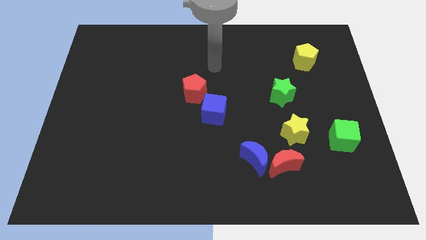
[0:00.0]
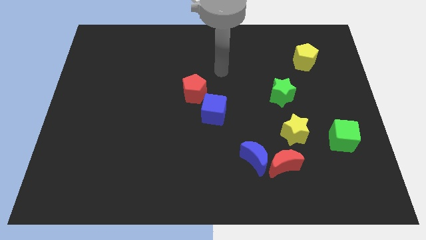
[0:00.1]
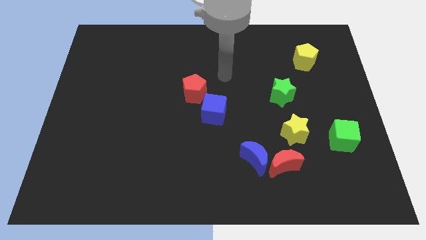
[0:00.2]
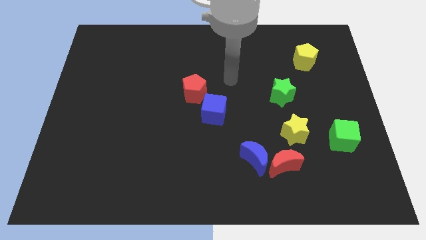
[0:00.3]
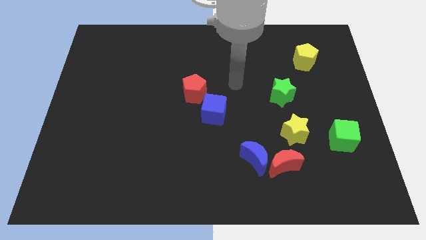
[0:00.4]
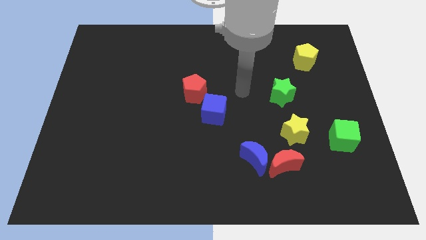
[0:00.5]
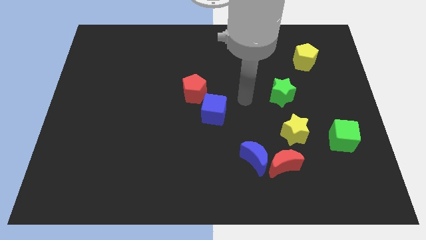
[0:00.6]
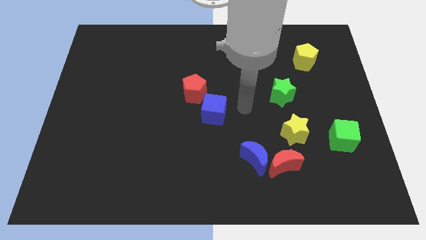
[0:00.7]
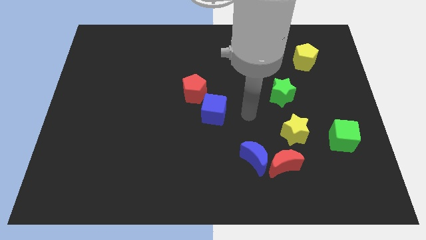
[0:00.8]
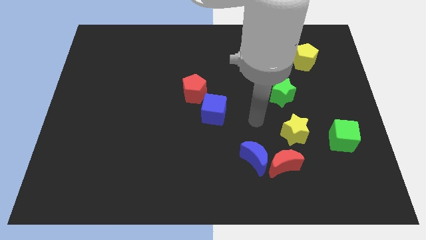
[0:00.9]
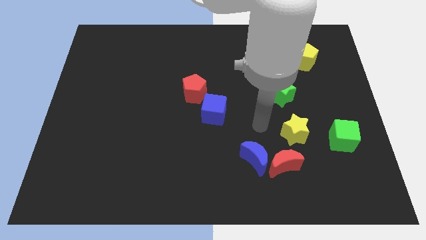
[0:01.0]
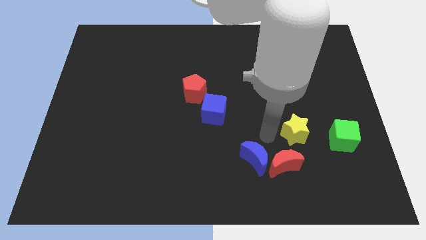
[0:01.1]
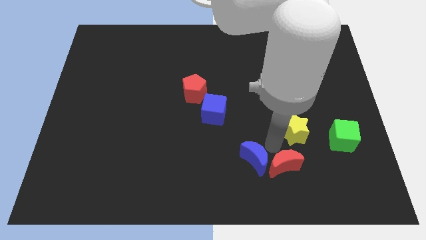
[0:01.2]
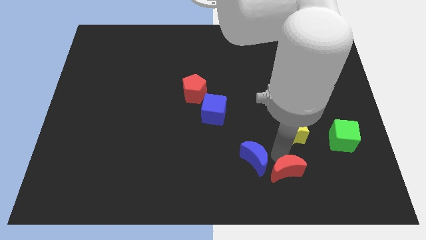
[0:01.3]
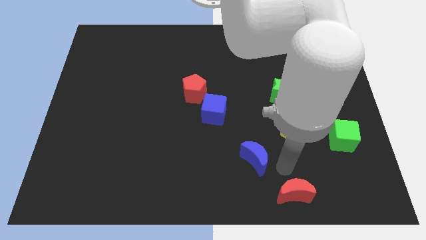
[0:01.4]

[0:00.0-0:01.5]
pull the blue moon apart from the red moon

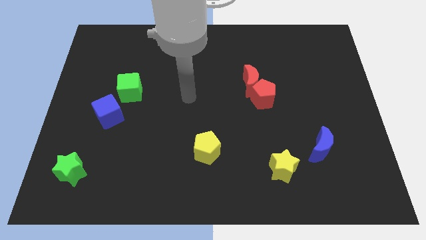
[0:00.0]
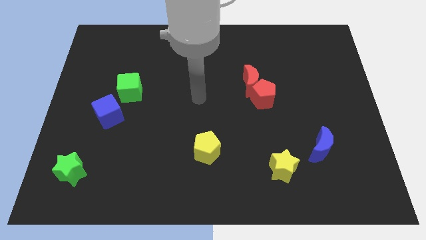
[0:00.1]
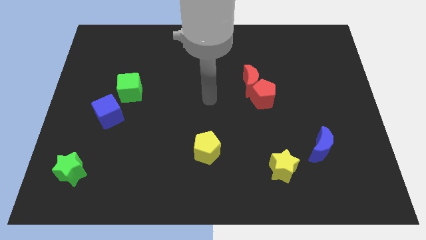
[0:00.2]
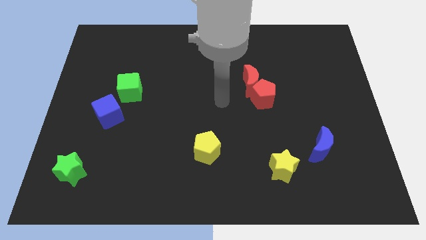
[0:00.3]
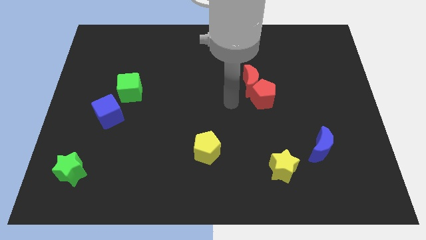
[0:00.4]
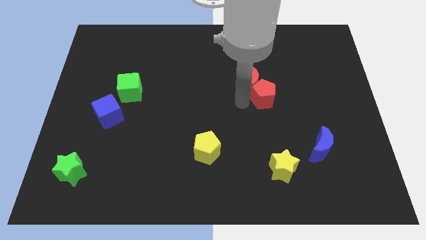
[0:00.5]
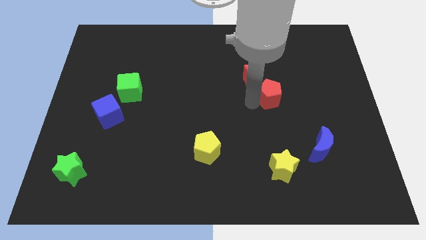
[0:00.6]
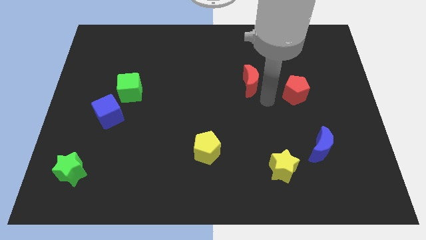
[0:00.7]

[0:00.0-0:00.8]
separate the red moon from the red pentagon

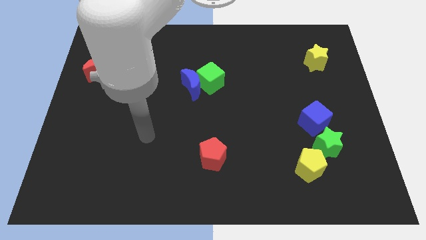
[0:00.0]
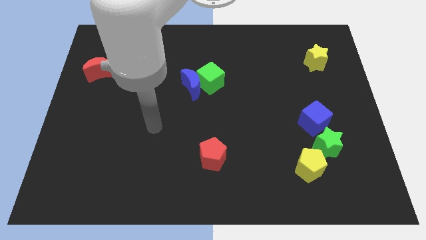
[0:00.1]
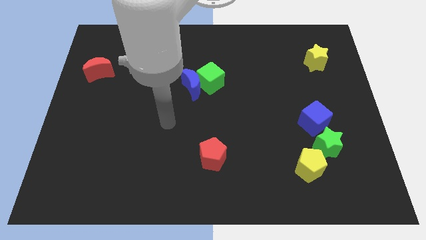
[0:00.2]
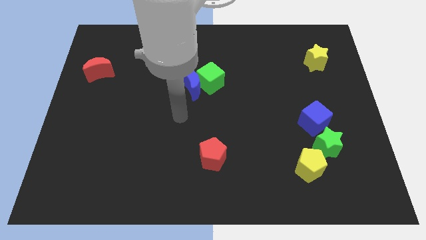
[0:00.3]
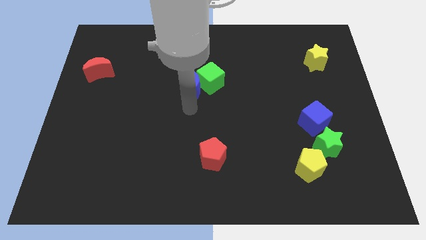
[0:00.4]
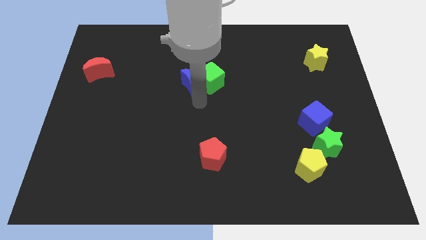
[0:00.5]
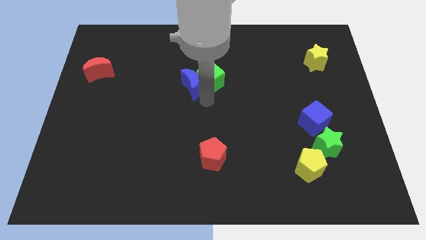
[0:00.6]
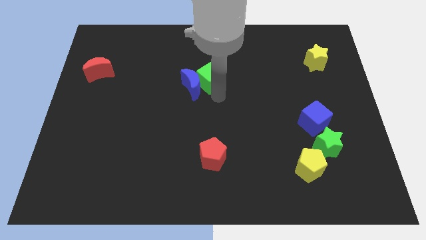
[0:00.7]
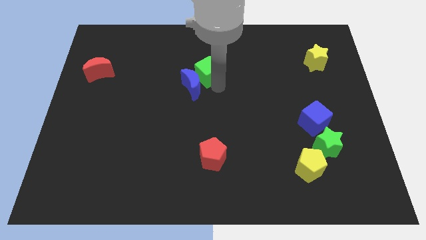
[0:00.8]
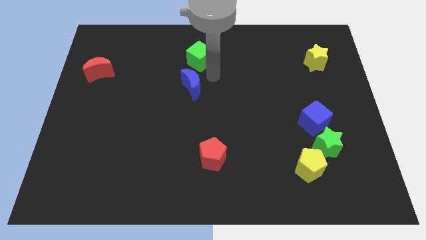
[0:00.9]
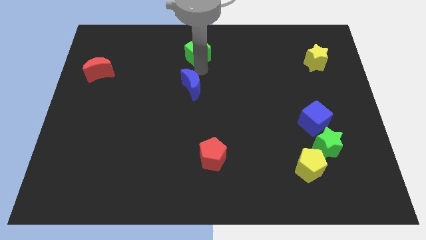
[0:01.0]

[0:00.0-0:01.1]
move the blue moon away from the green cube

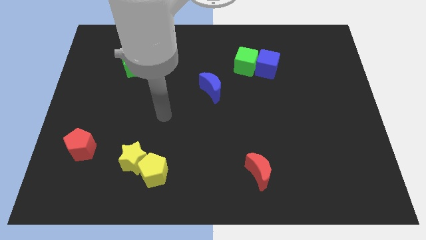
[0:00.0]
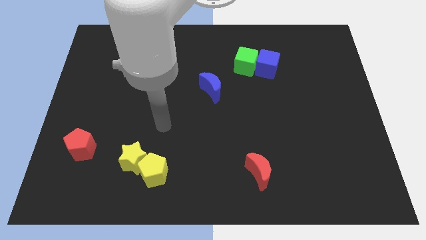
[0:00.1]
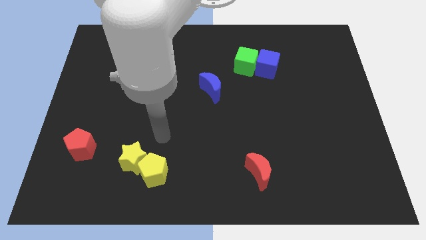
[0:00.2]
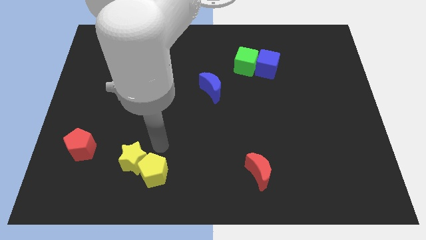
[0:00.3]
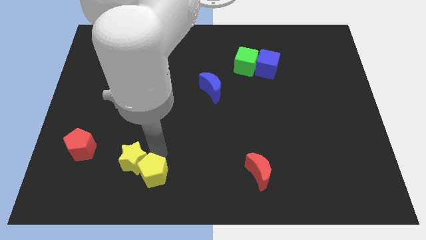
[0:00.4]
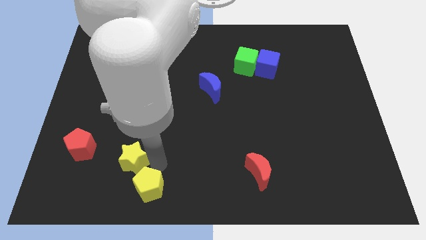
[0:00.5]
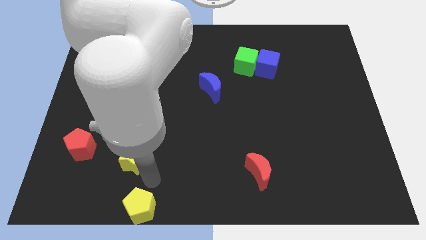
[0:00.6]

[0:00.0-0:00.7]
move the yellow star away from the yellow pentagon

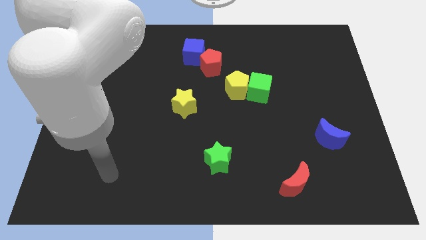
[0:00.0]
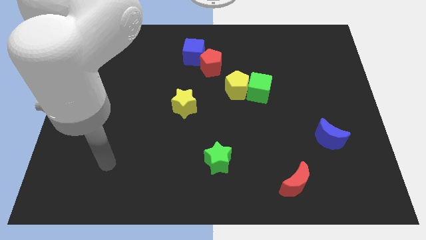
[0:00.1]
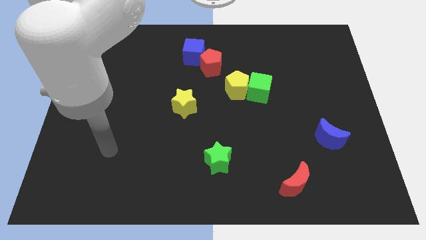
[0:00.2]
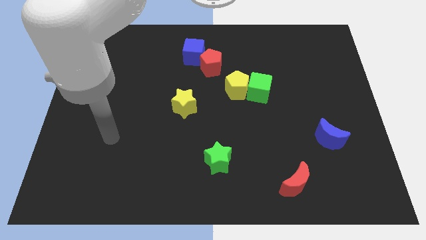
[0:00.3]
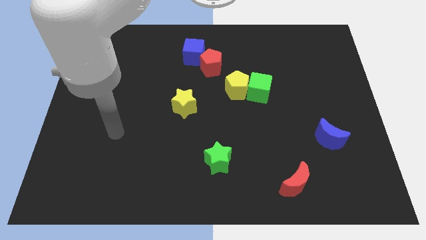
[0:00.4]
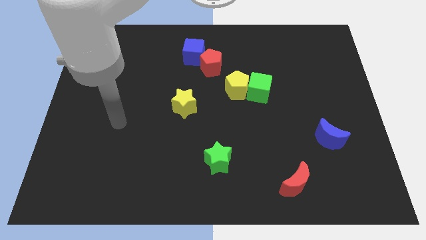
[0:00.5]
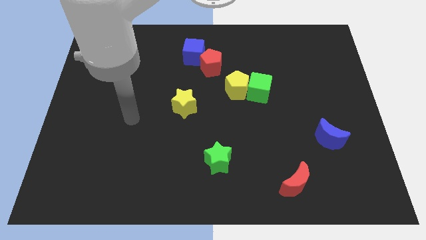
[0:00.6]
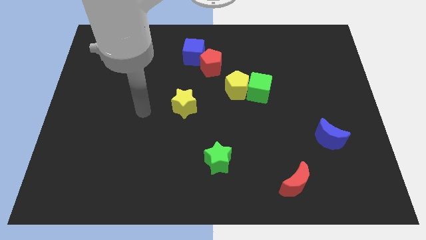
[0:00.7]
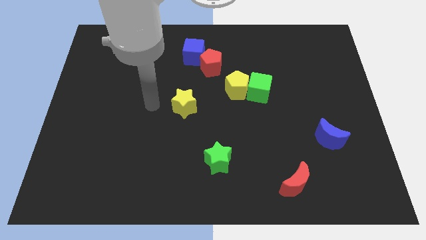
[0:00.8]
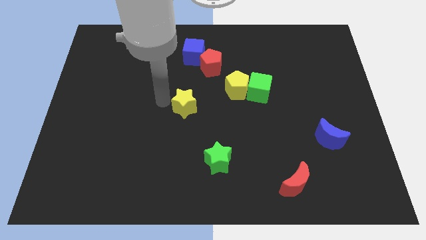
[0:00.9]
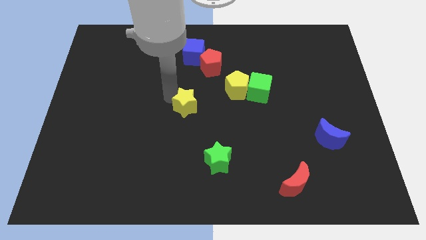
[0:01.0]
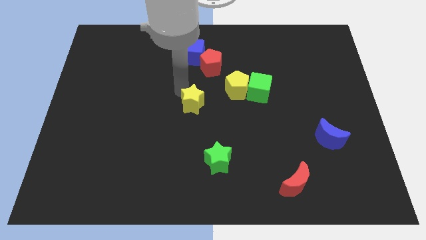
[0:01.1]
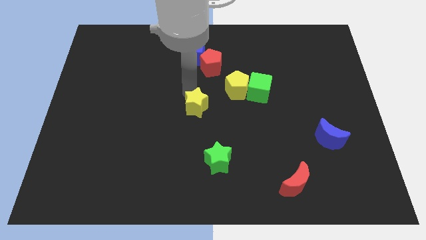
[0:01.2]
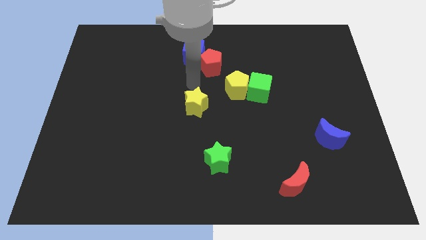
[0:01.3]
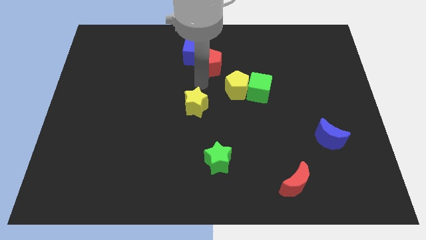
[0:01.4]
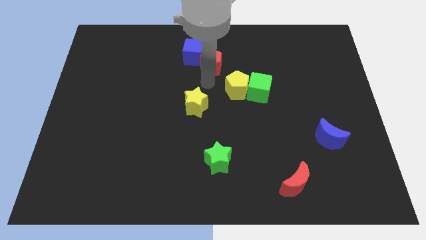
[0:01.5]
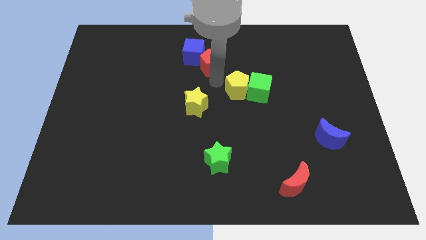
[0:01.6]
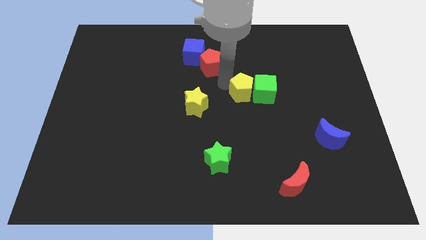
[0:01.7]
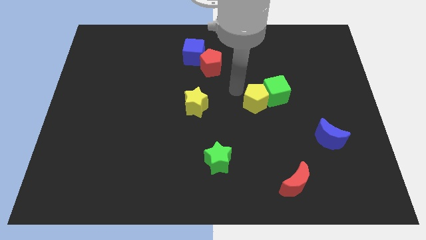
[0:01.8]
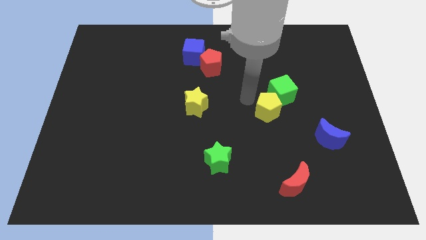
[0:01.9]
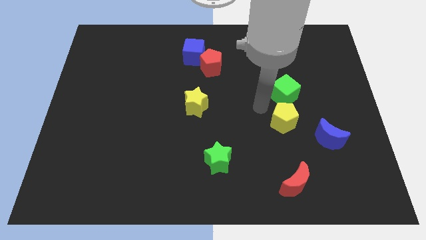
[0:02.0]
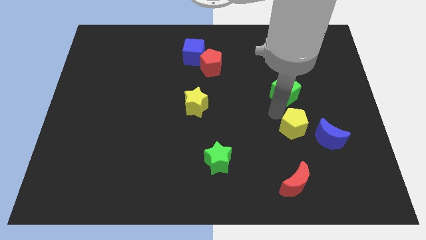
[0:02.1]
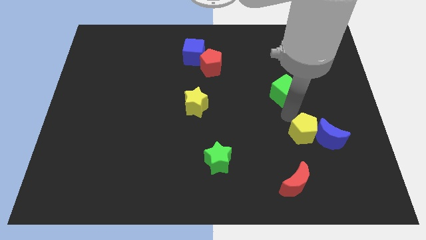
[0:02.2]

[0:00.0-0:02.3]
move the green cube away from the yellow pentagon

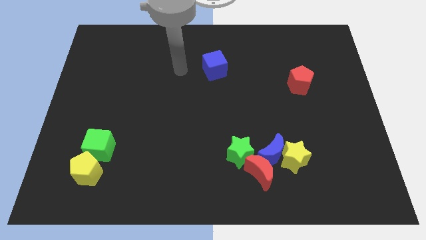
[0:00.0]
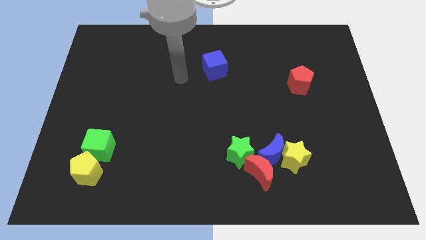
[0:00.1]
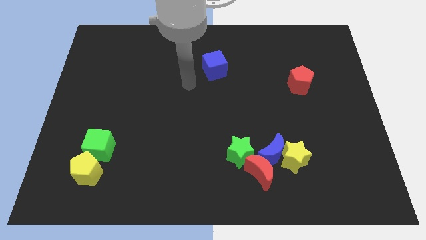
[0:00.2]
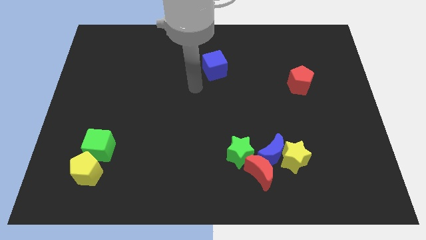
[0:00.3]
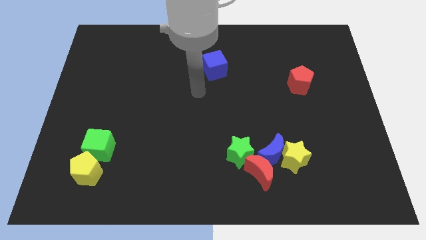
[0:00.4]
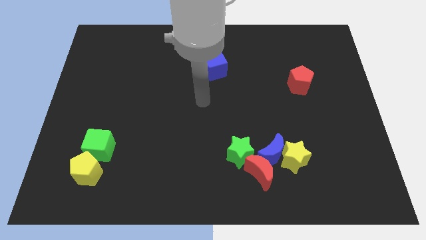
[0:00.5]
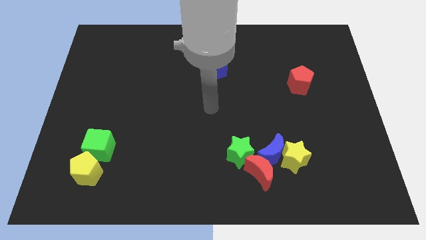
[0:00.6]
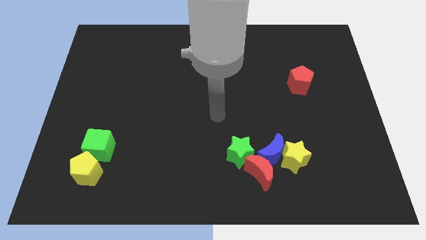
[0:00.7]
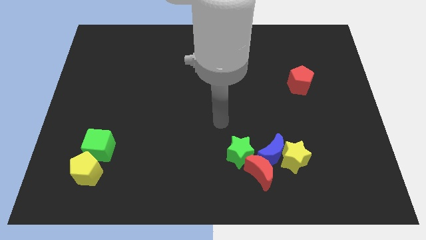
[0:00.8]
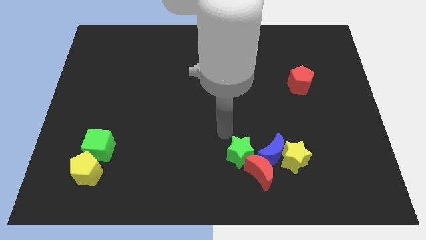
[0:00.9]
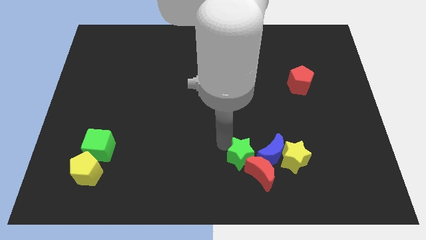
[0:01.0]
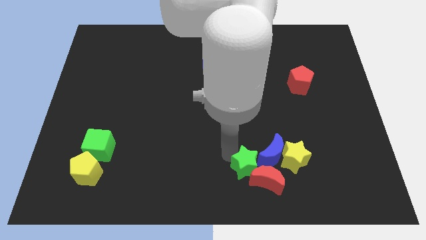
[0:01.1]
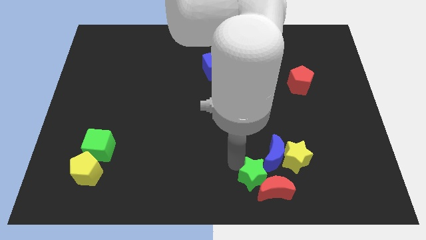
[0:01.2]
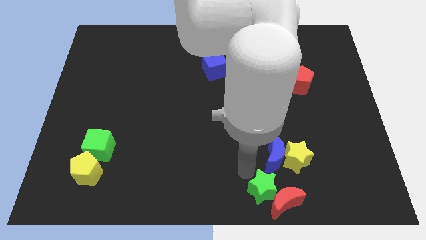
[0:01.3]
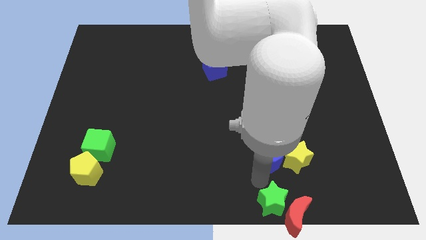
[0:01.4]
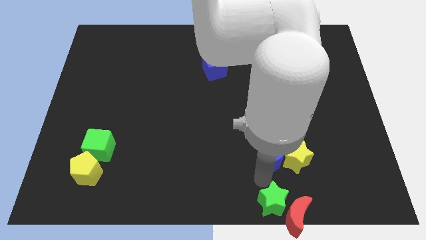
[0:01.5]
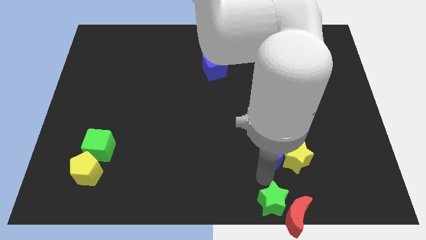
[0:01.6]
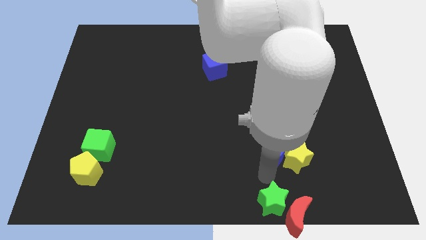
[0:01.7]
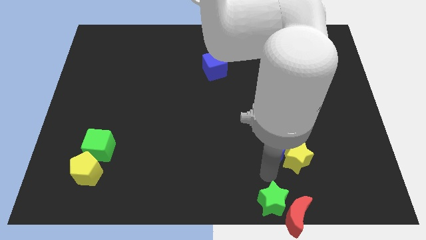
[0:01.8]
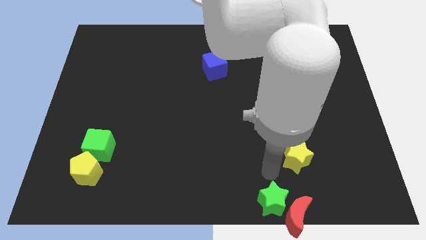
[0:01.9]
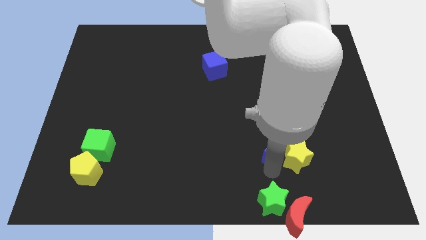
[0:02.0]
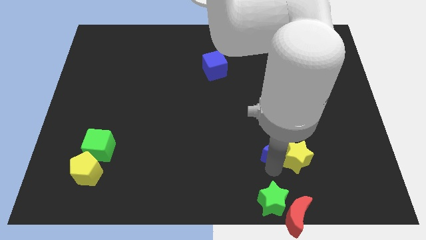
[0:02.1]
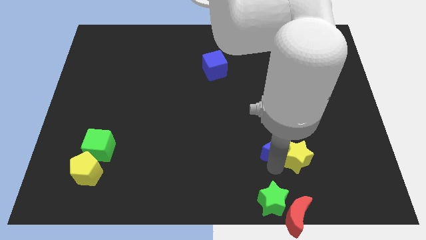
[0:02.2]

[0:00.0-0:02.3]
pull the blue moon apart from the yellow star, red moon, and green star

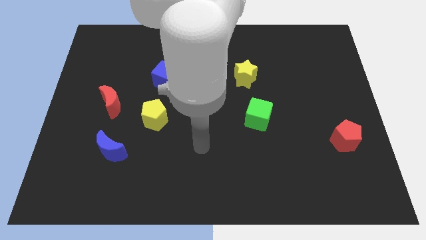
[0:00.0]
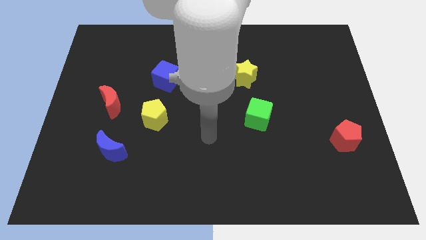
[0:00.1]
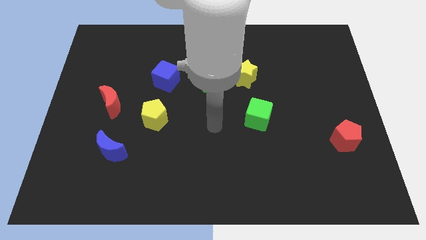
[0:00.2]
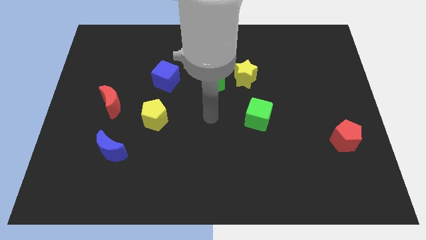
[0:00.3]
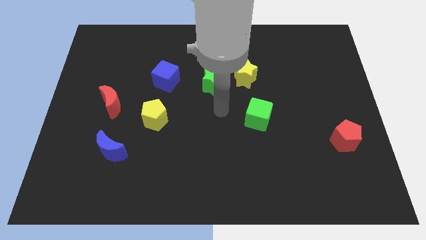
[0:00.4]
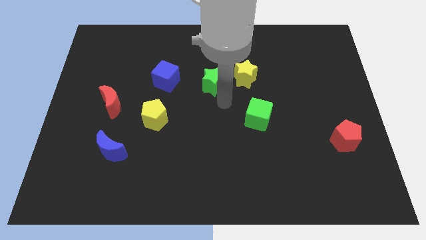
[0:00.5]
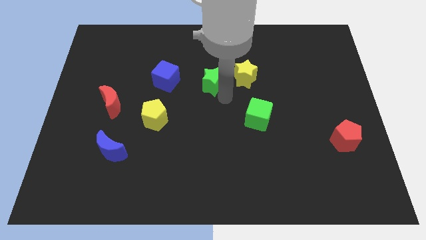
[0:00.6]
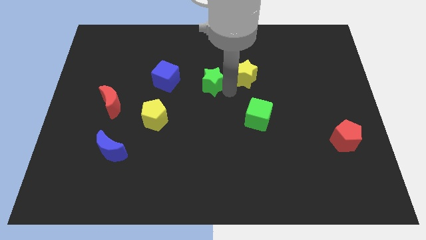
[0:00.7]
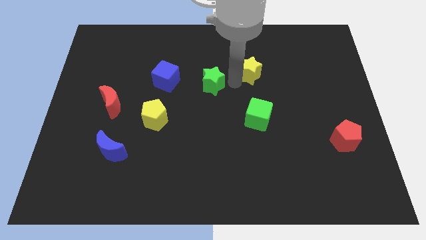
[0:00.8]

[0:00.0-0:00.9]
separate the green star from the yellow star
